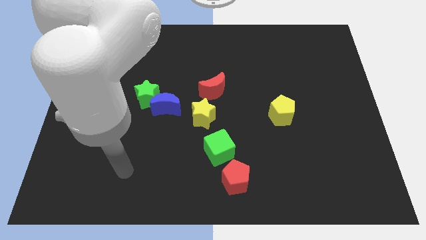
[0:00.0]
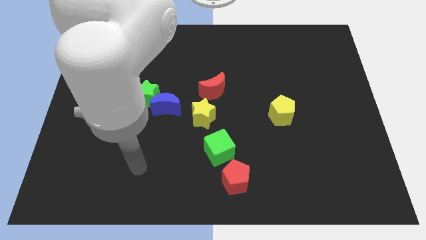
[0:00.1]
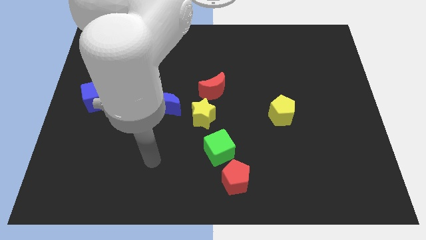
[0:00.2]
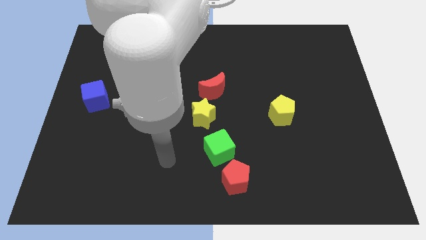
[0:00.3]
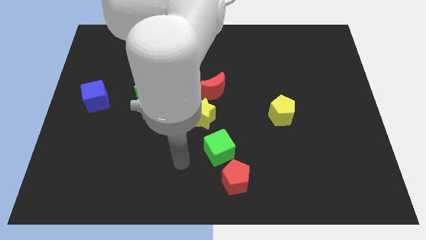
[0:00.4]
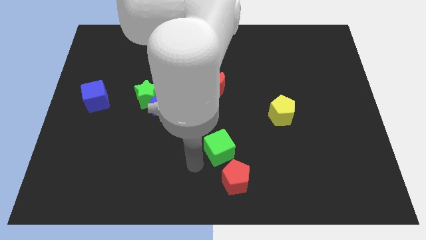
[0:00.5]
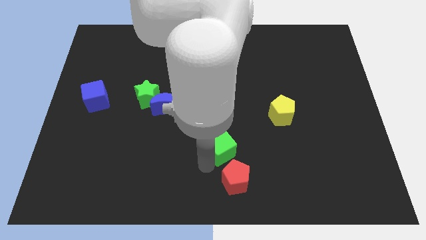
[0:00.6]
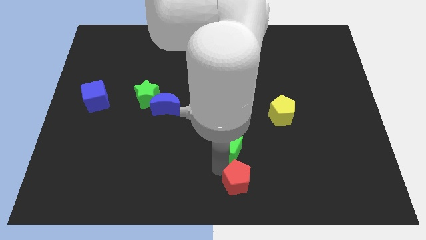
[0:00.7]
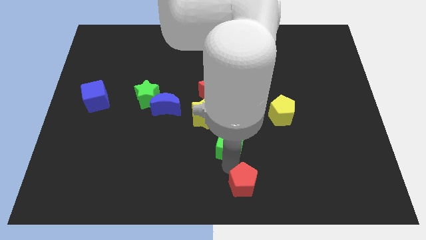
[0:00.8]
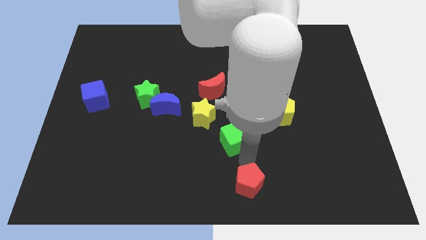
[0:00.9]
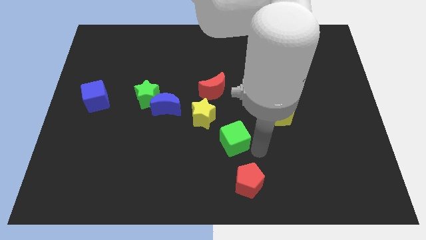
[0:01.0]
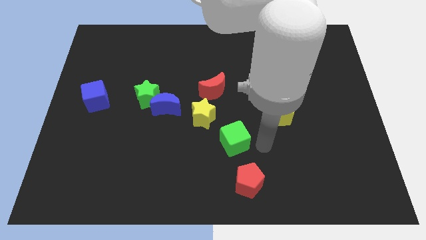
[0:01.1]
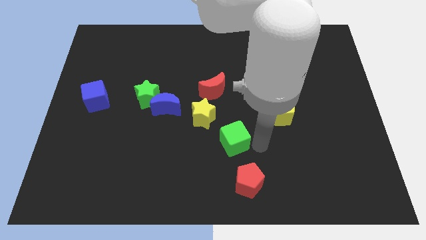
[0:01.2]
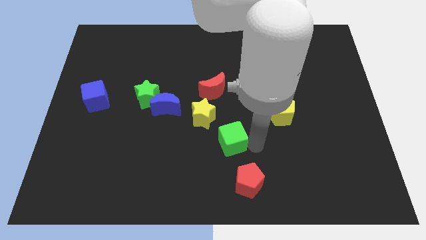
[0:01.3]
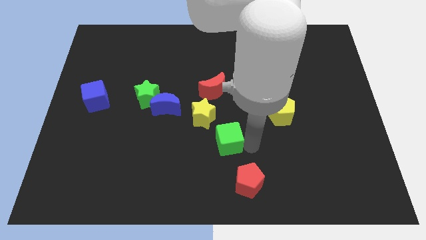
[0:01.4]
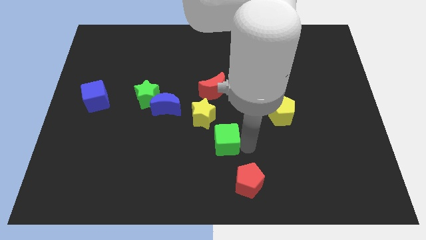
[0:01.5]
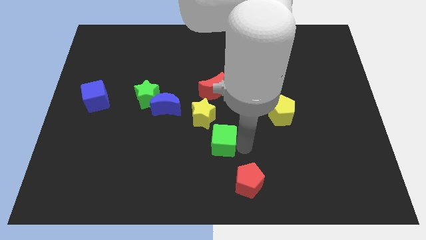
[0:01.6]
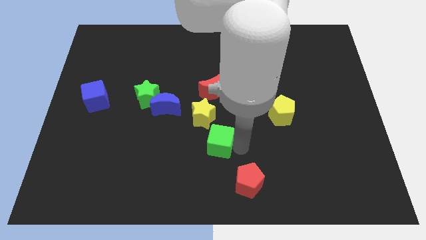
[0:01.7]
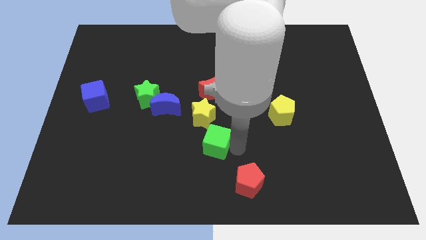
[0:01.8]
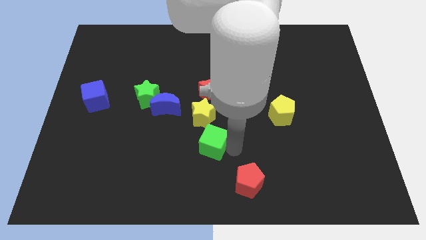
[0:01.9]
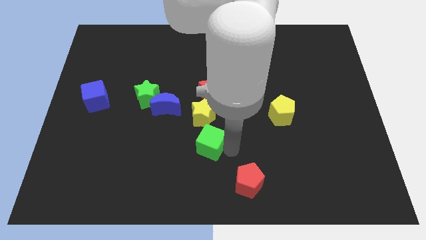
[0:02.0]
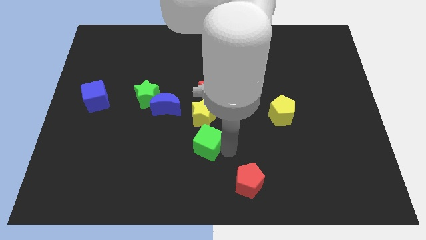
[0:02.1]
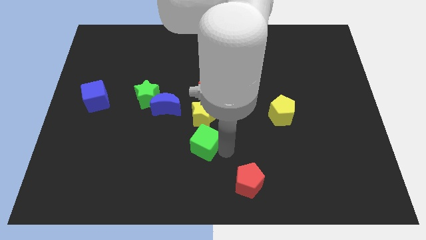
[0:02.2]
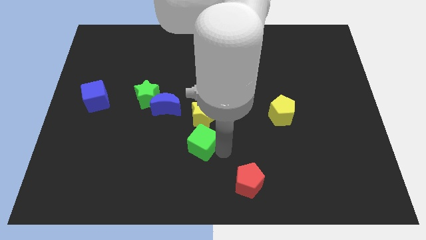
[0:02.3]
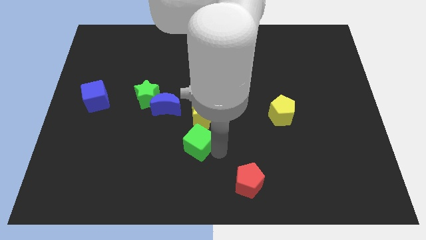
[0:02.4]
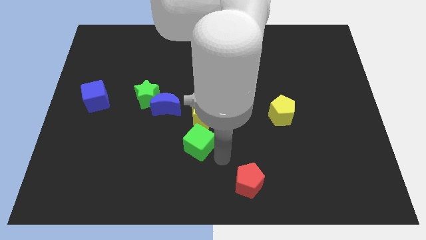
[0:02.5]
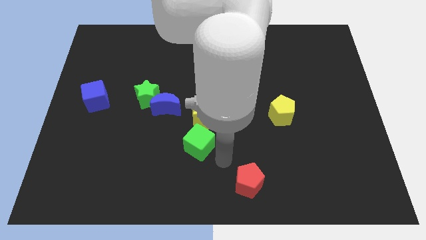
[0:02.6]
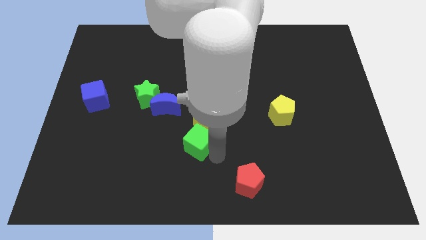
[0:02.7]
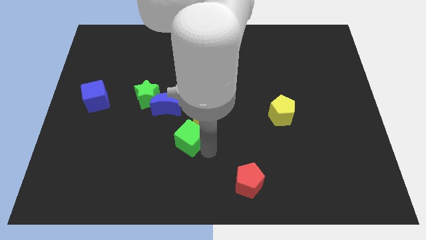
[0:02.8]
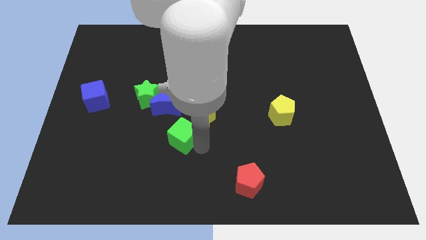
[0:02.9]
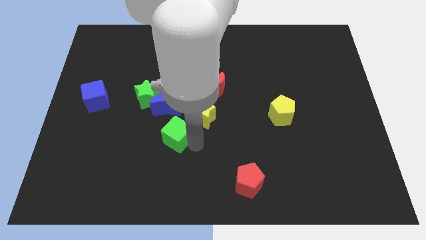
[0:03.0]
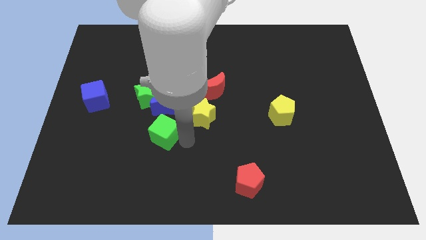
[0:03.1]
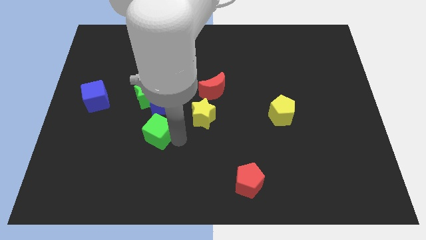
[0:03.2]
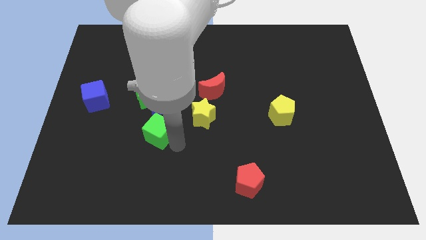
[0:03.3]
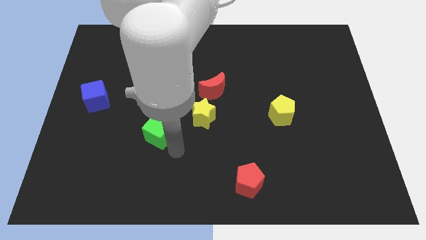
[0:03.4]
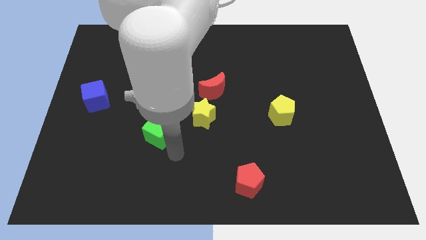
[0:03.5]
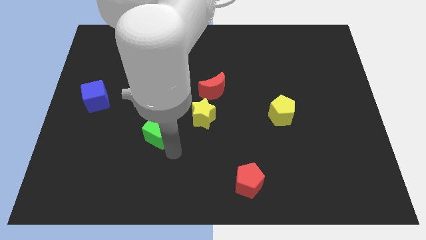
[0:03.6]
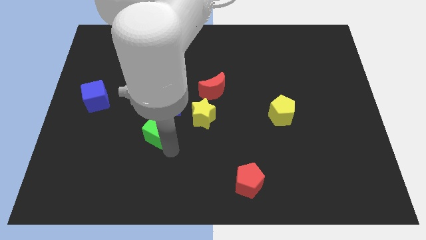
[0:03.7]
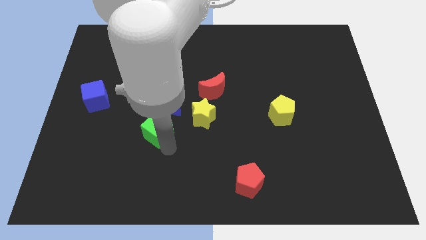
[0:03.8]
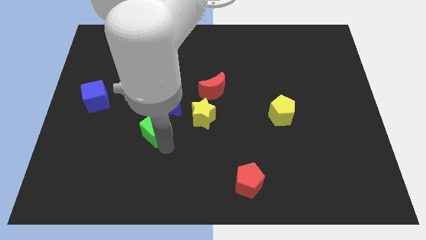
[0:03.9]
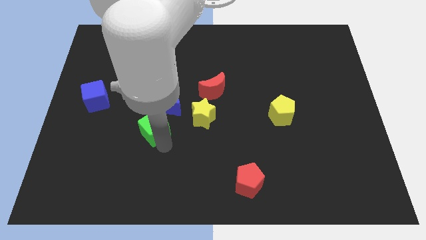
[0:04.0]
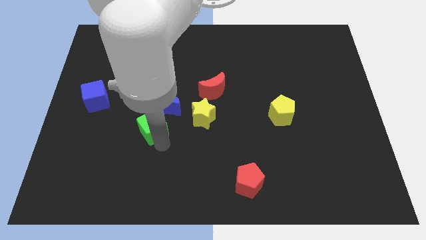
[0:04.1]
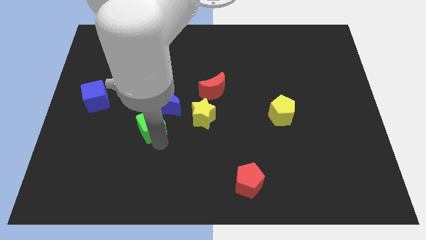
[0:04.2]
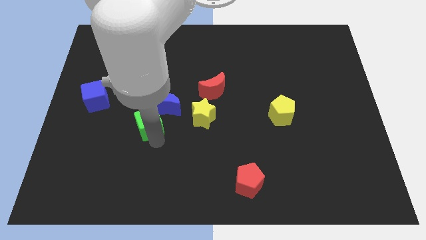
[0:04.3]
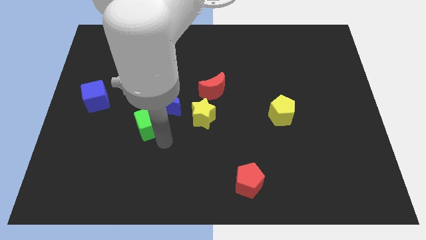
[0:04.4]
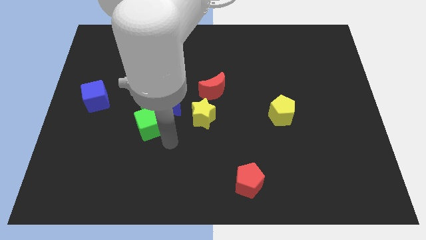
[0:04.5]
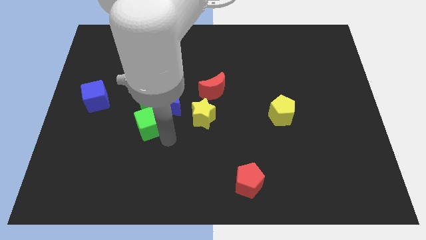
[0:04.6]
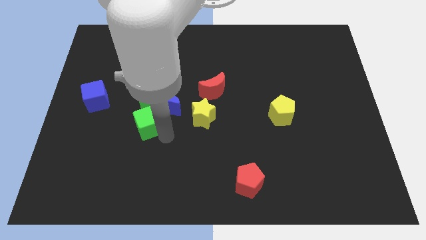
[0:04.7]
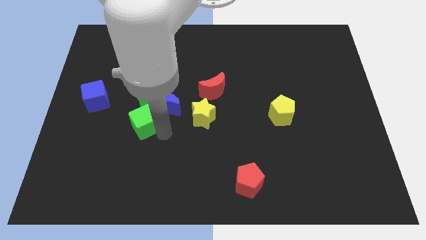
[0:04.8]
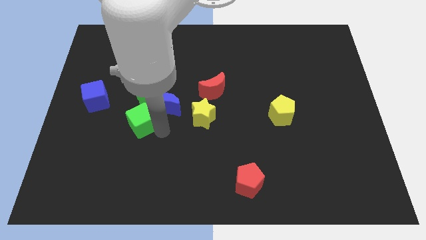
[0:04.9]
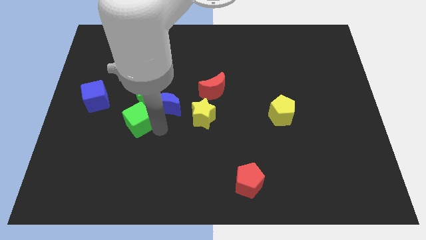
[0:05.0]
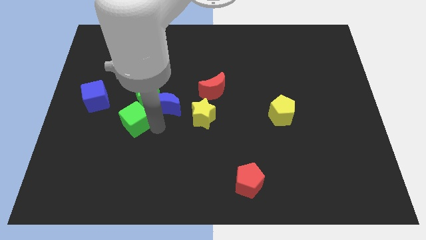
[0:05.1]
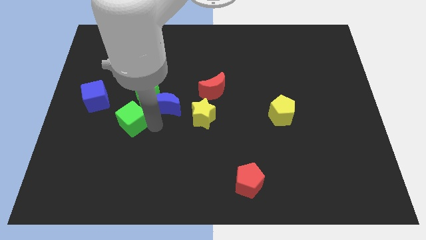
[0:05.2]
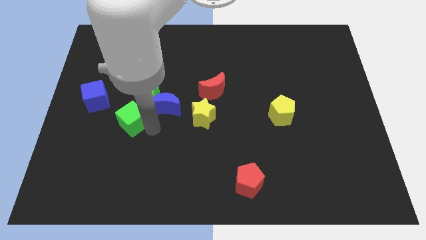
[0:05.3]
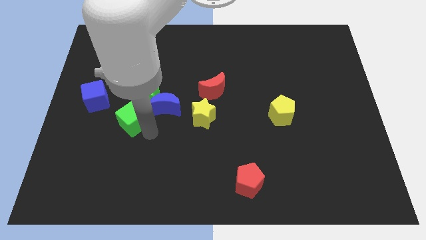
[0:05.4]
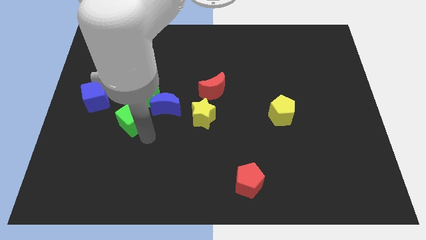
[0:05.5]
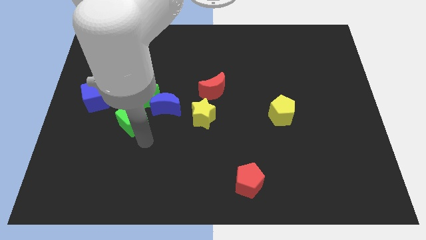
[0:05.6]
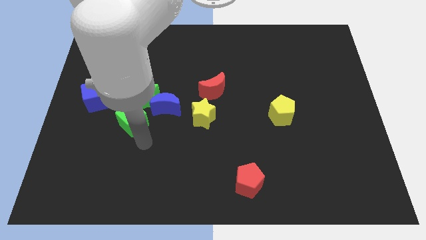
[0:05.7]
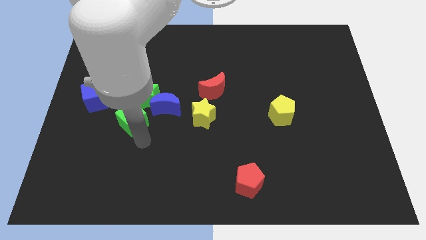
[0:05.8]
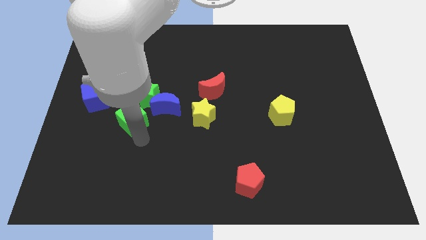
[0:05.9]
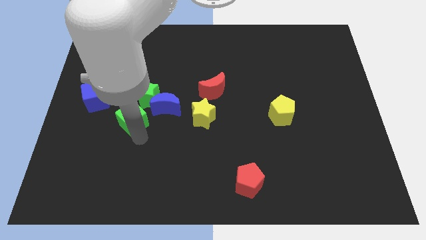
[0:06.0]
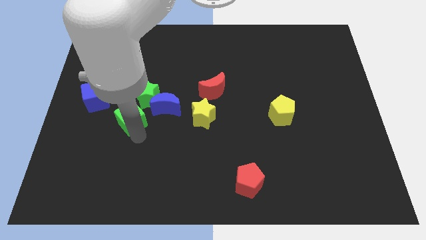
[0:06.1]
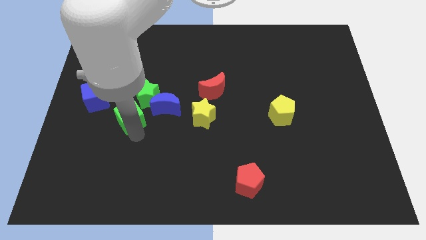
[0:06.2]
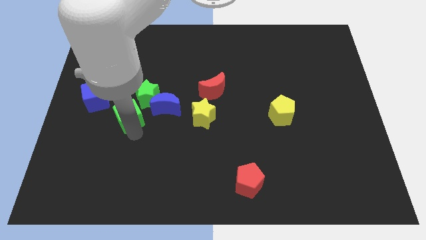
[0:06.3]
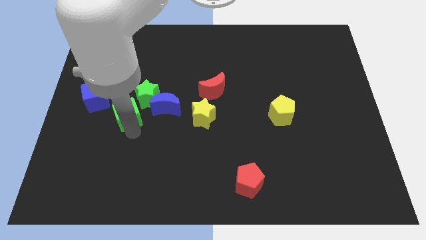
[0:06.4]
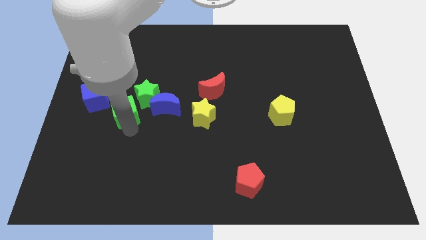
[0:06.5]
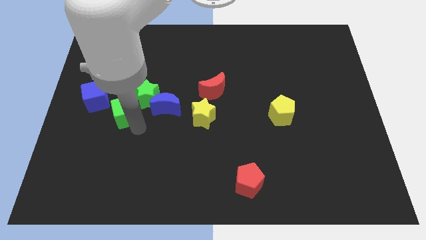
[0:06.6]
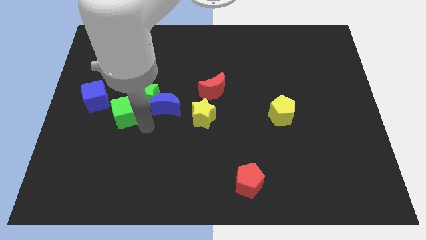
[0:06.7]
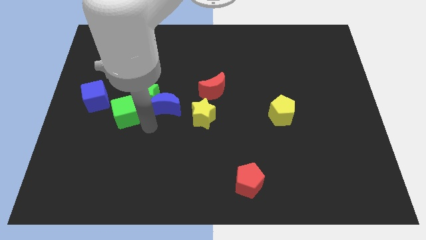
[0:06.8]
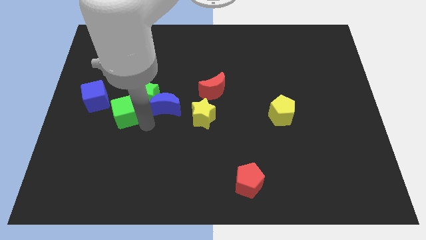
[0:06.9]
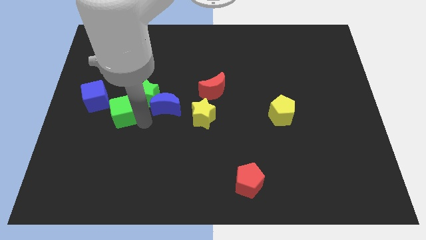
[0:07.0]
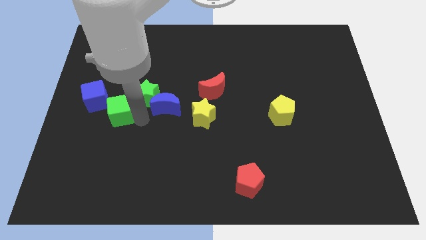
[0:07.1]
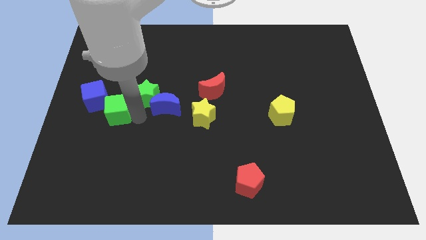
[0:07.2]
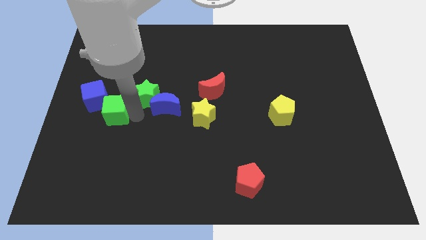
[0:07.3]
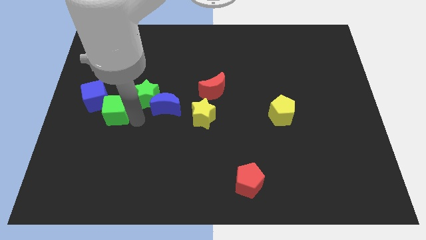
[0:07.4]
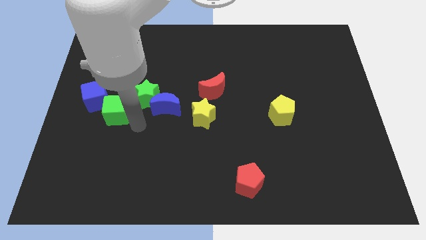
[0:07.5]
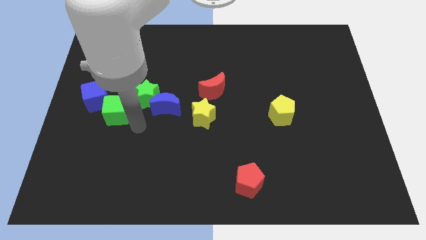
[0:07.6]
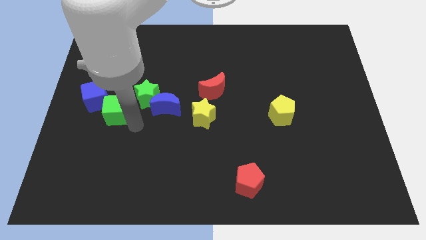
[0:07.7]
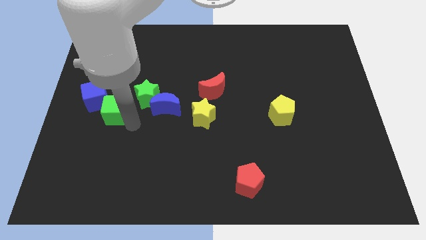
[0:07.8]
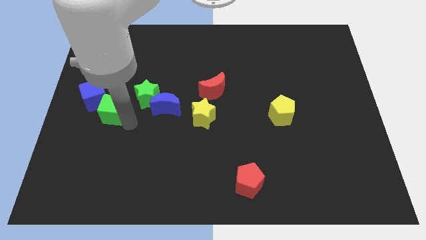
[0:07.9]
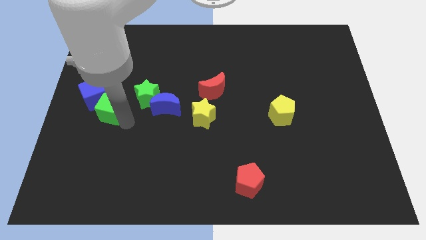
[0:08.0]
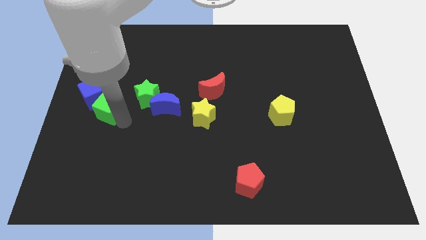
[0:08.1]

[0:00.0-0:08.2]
slide the green cube to the blue cube
